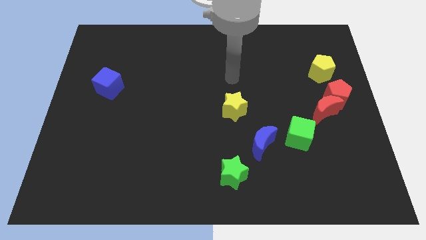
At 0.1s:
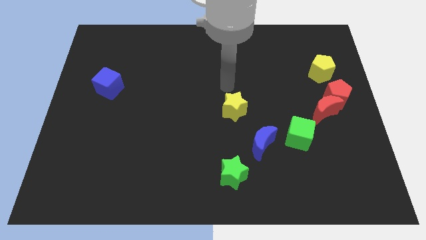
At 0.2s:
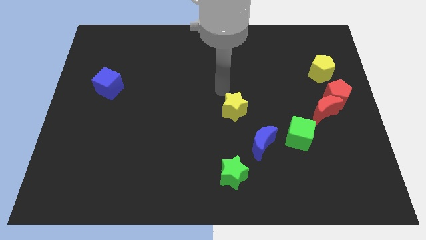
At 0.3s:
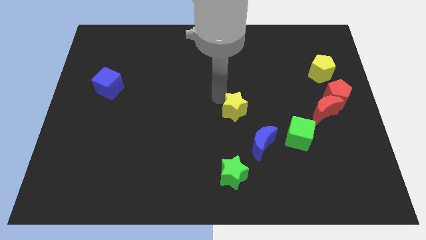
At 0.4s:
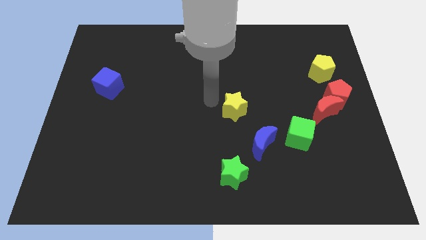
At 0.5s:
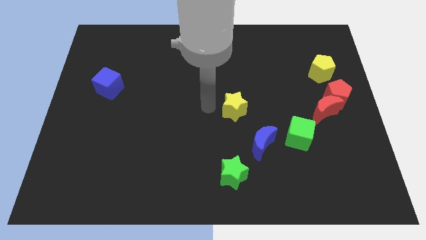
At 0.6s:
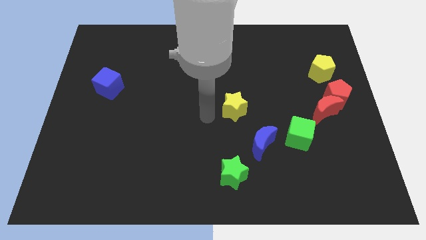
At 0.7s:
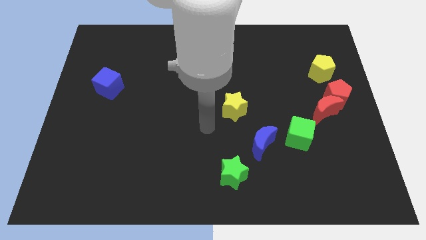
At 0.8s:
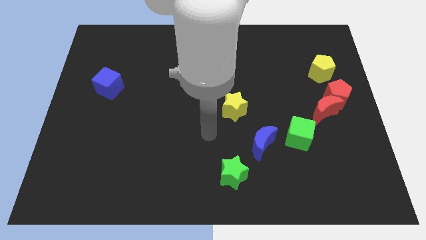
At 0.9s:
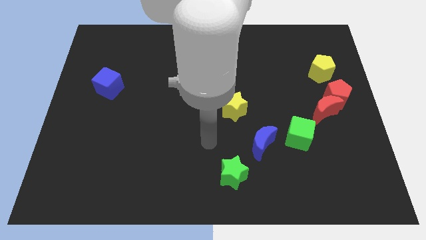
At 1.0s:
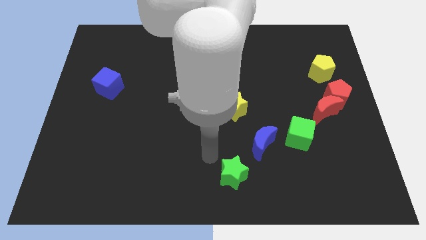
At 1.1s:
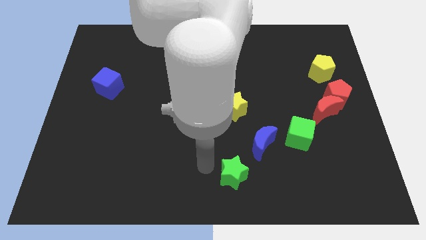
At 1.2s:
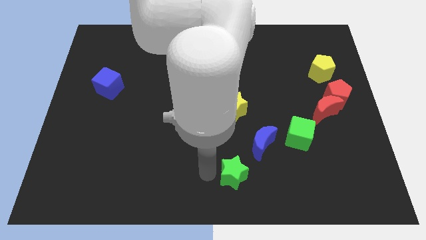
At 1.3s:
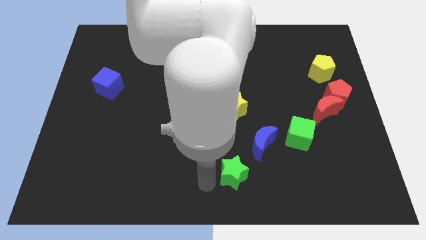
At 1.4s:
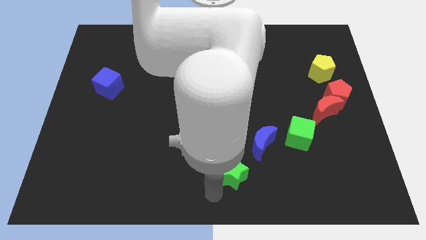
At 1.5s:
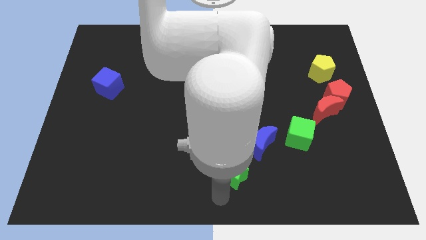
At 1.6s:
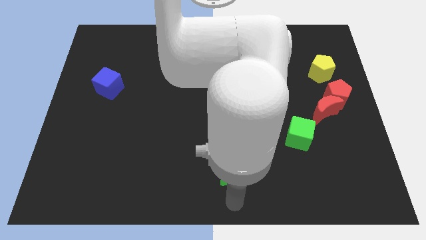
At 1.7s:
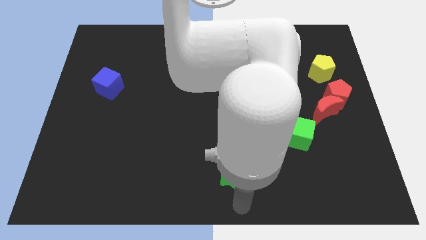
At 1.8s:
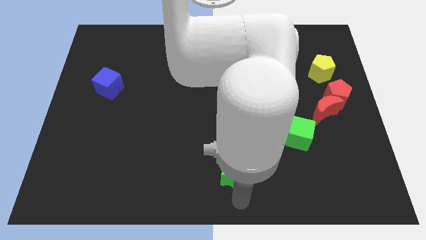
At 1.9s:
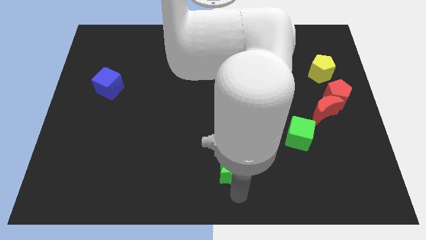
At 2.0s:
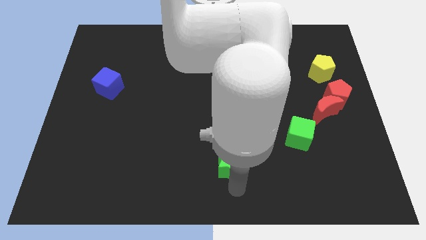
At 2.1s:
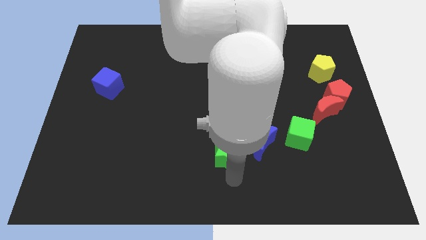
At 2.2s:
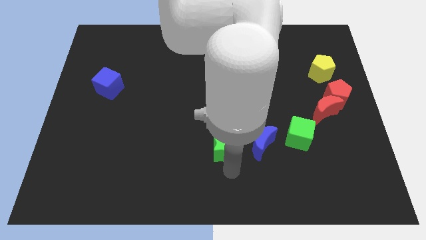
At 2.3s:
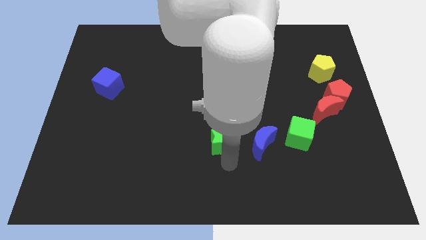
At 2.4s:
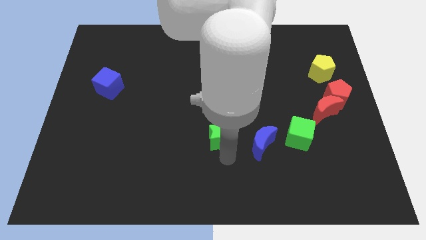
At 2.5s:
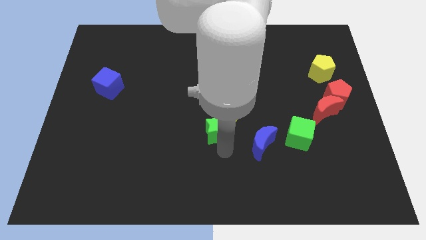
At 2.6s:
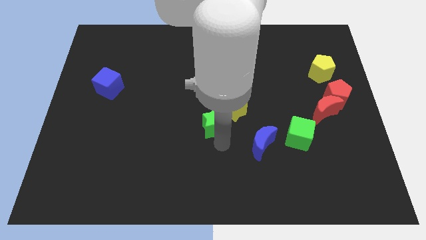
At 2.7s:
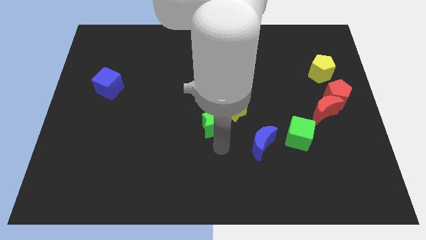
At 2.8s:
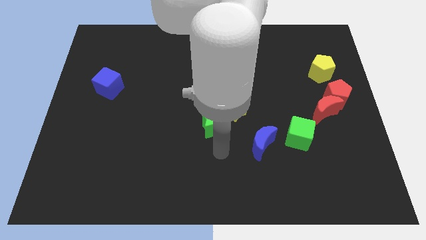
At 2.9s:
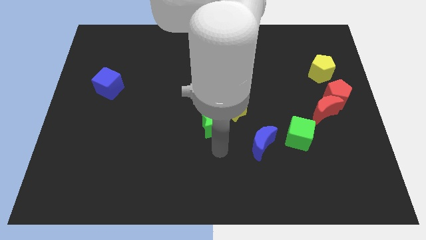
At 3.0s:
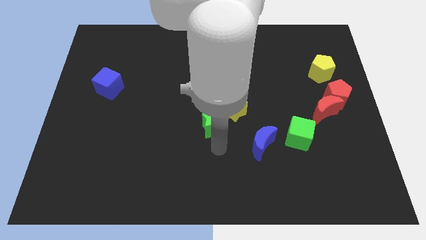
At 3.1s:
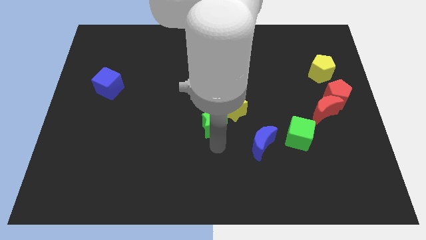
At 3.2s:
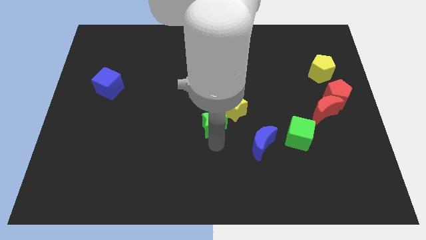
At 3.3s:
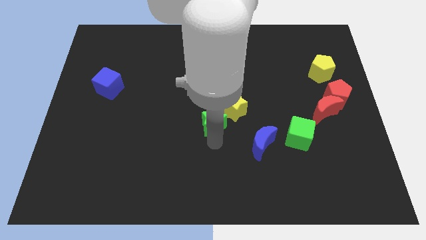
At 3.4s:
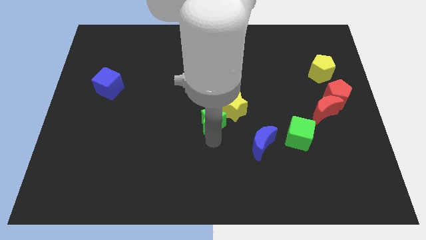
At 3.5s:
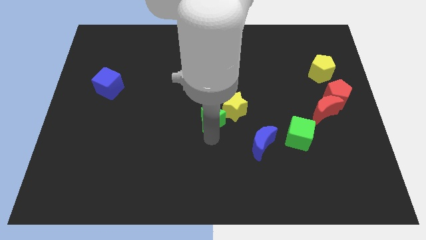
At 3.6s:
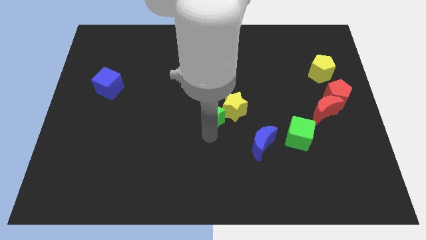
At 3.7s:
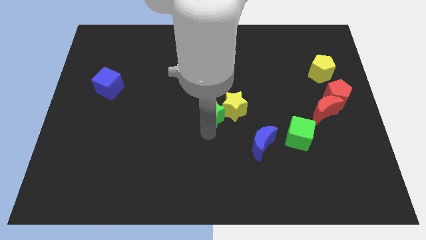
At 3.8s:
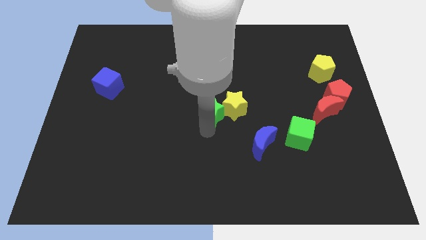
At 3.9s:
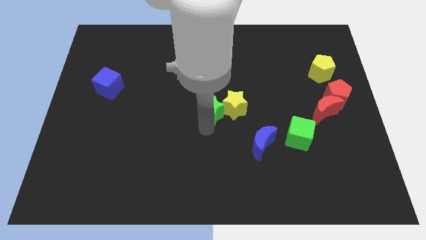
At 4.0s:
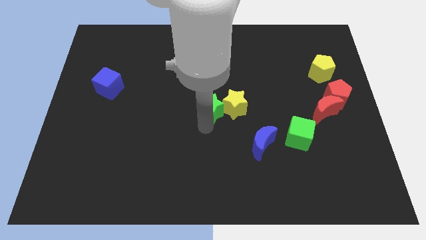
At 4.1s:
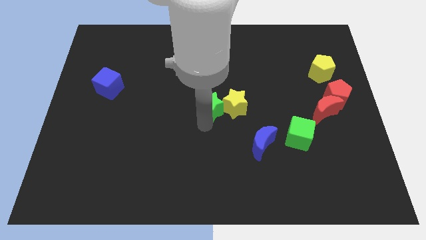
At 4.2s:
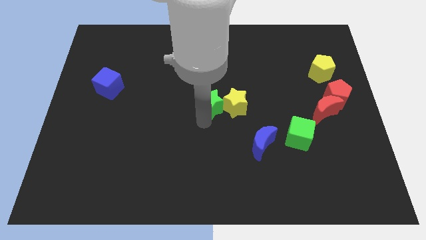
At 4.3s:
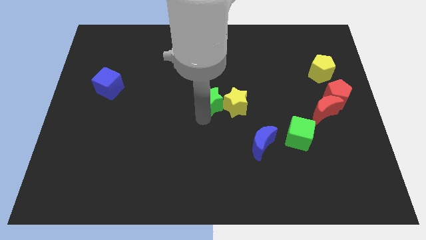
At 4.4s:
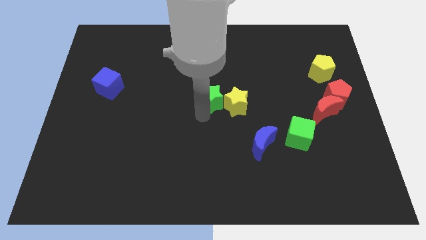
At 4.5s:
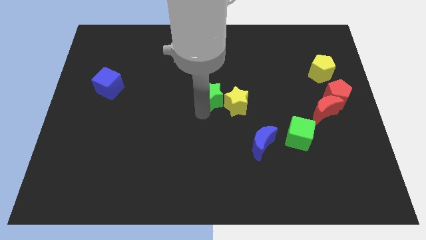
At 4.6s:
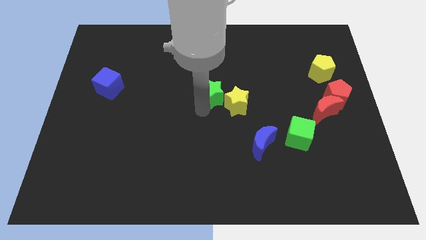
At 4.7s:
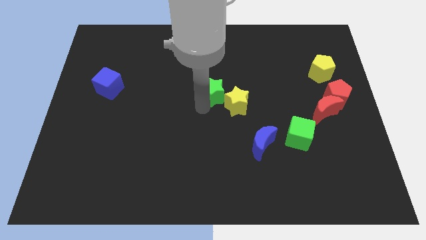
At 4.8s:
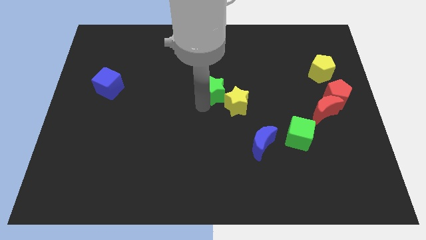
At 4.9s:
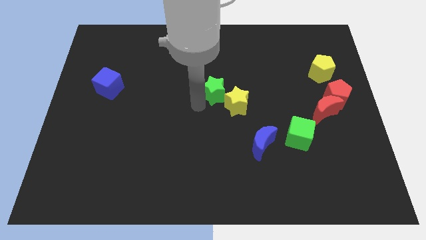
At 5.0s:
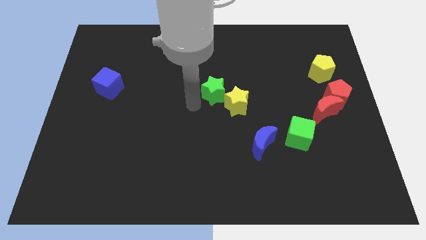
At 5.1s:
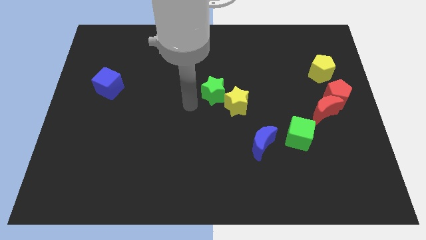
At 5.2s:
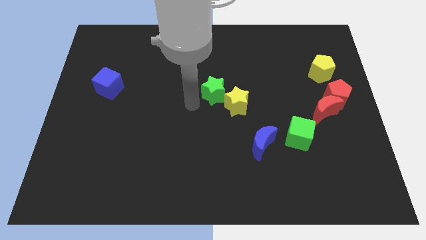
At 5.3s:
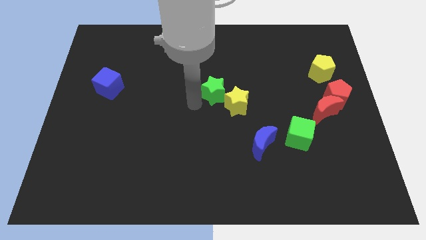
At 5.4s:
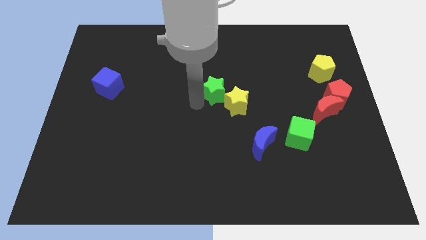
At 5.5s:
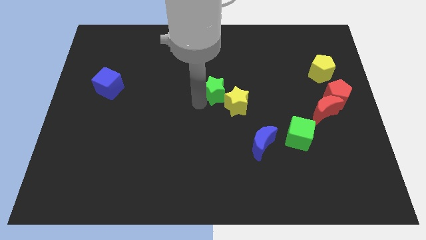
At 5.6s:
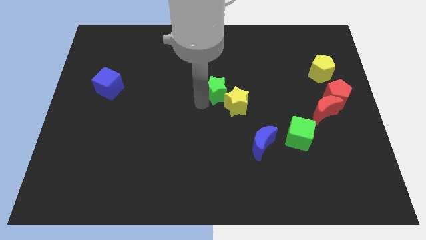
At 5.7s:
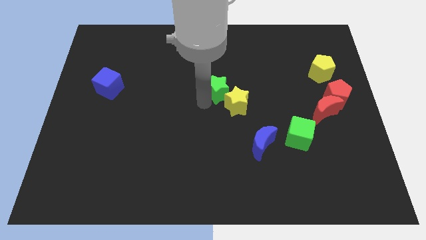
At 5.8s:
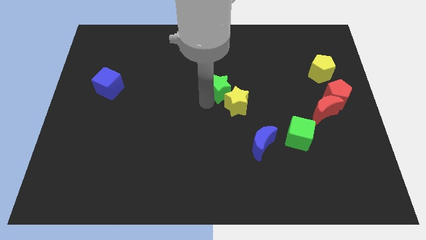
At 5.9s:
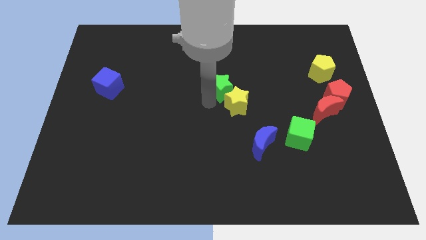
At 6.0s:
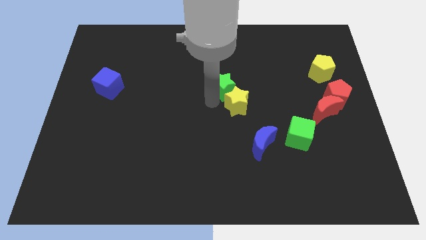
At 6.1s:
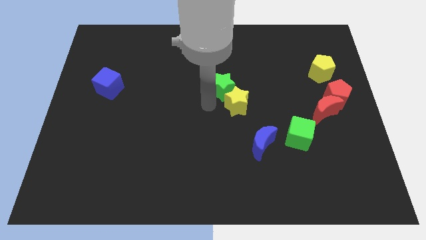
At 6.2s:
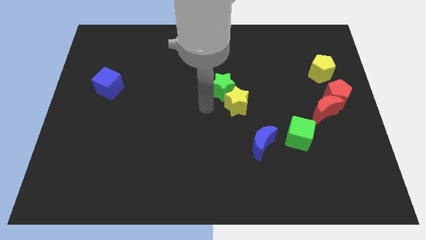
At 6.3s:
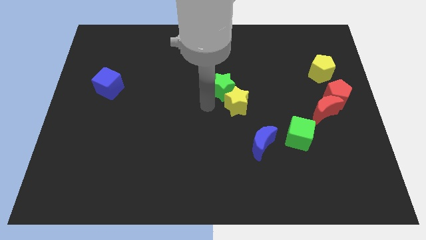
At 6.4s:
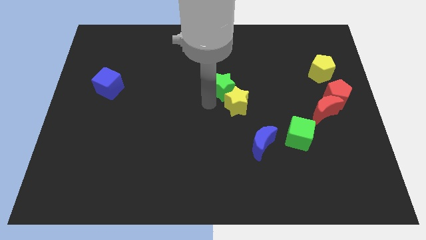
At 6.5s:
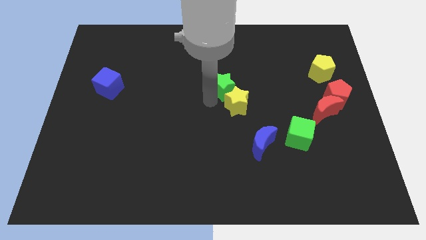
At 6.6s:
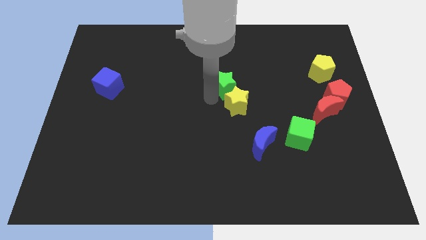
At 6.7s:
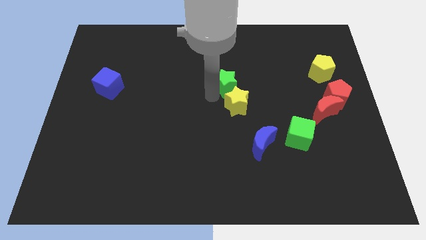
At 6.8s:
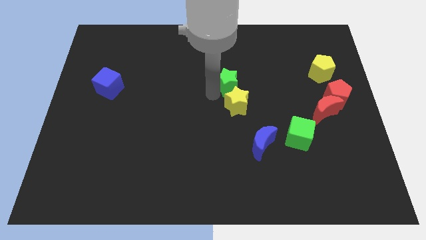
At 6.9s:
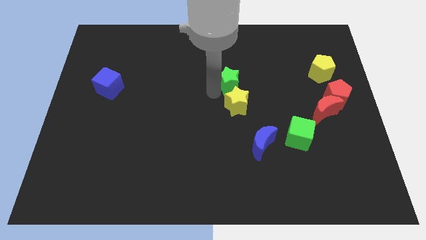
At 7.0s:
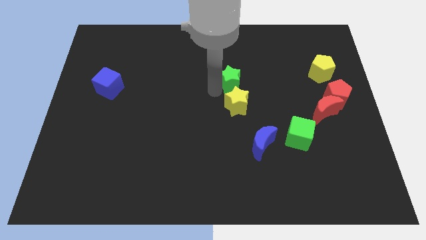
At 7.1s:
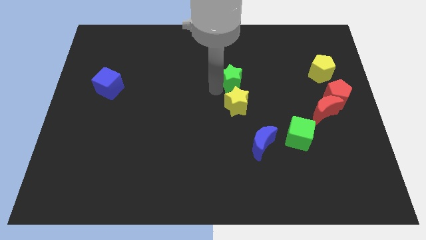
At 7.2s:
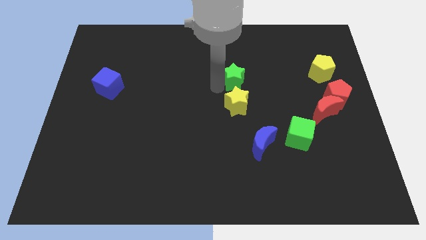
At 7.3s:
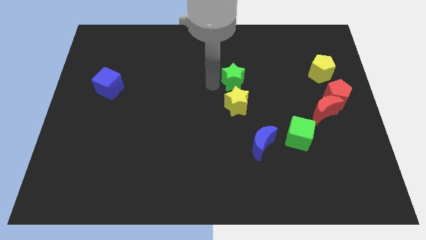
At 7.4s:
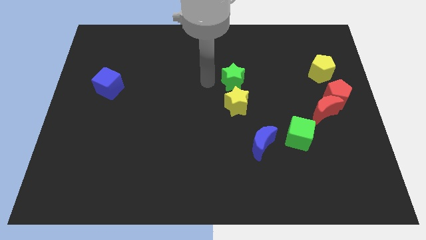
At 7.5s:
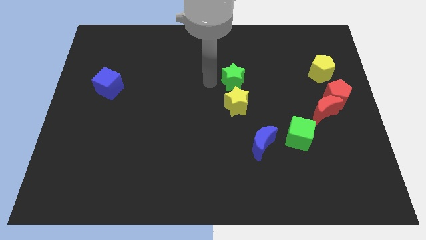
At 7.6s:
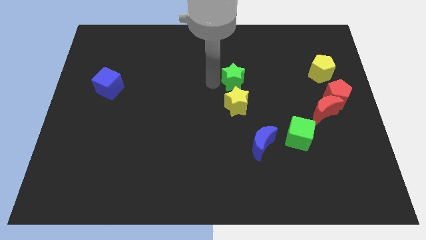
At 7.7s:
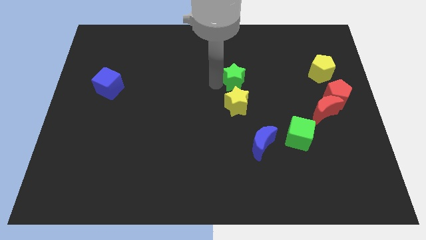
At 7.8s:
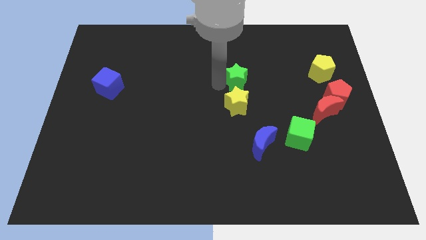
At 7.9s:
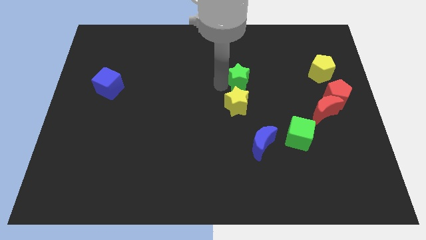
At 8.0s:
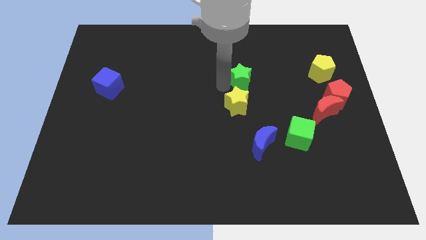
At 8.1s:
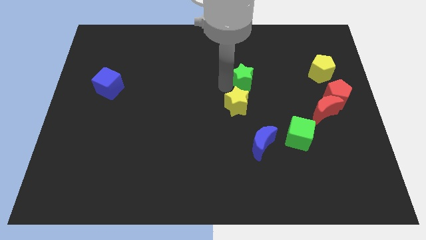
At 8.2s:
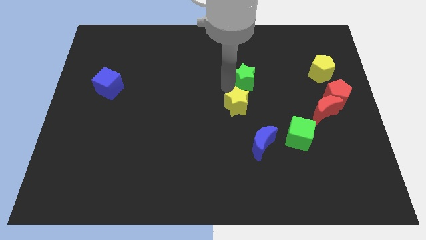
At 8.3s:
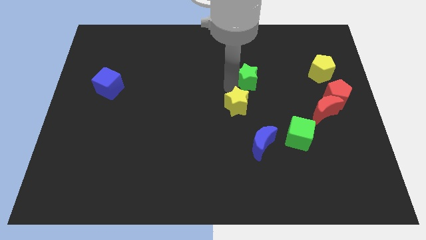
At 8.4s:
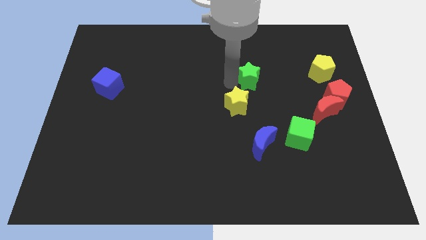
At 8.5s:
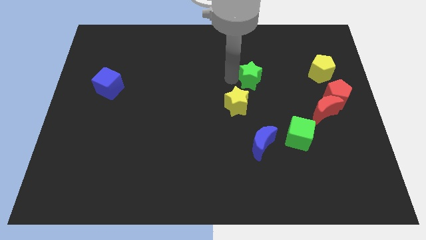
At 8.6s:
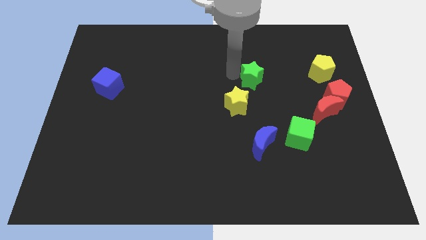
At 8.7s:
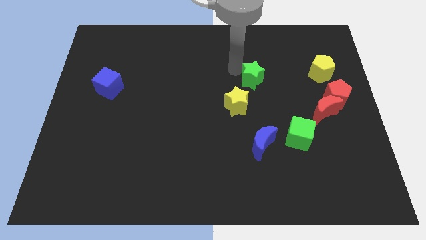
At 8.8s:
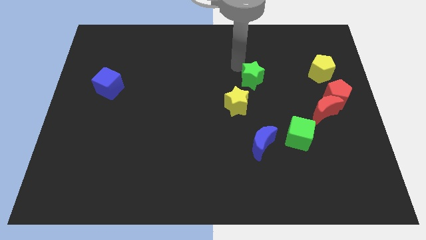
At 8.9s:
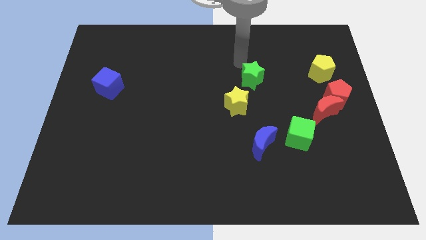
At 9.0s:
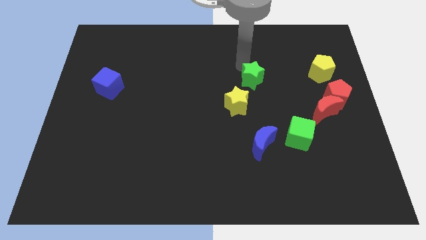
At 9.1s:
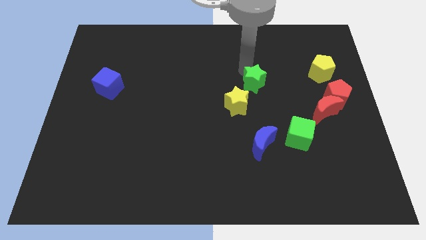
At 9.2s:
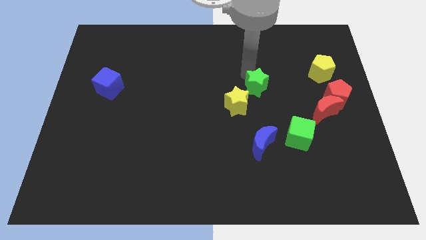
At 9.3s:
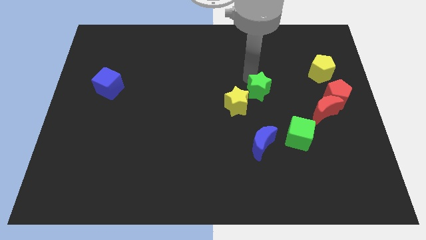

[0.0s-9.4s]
slide the green star above the blue moon
